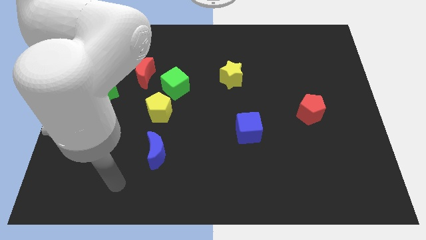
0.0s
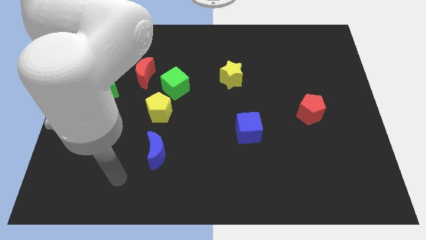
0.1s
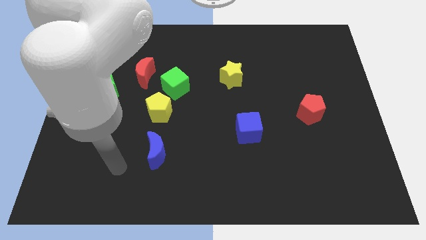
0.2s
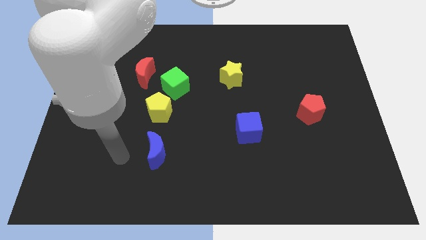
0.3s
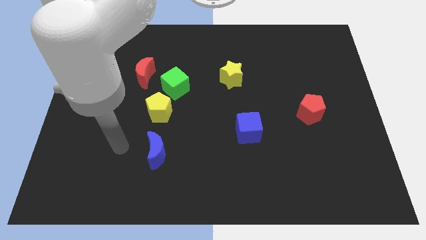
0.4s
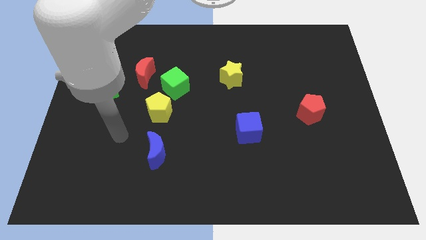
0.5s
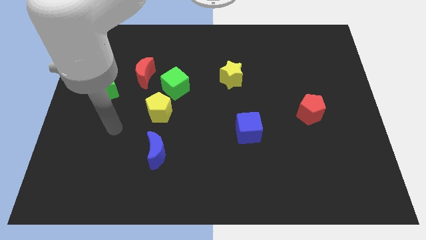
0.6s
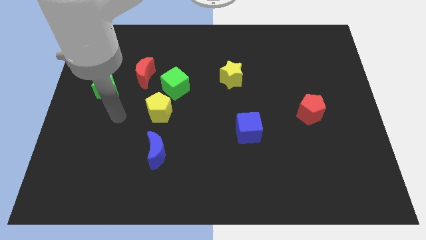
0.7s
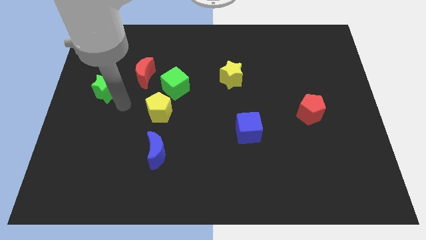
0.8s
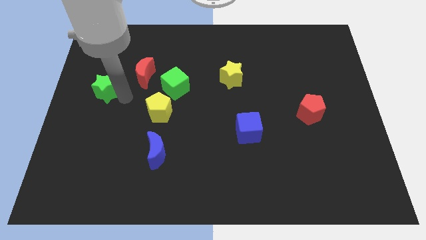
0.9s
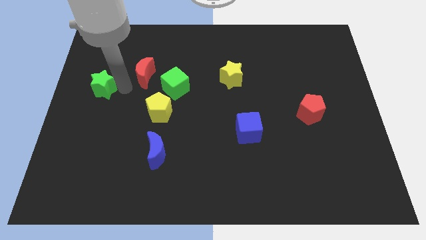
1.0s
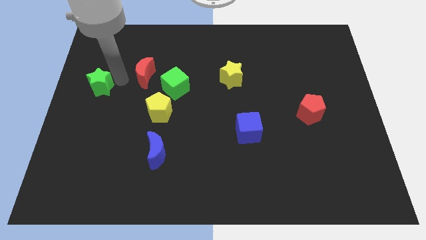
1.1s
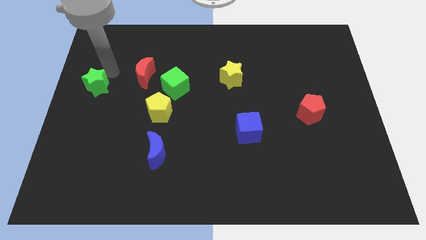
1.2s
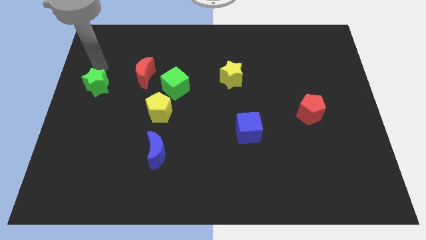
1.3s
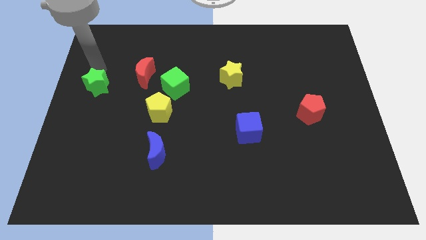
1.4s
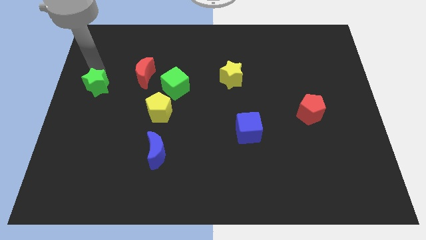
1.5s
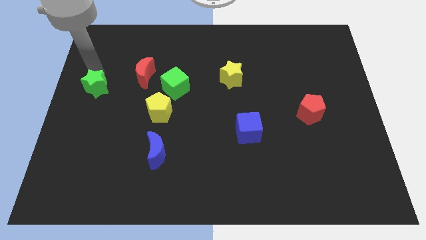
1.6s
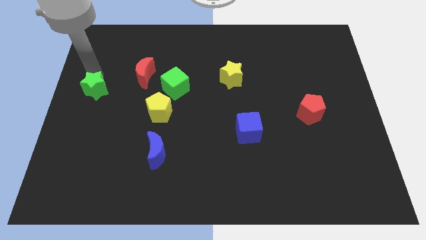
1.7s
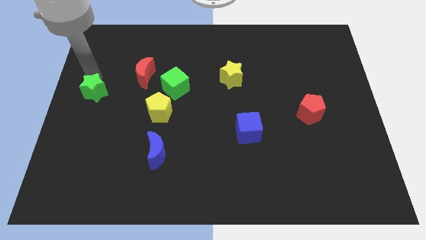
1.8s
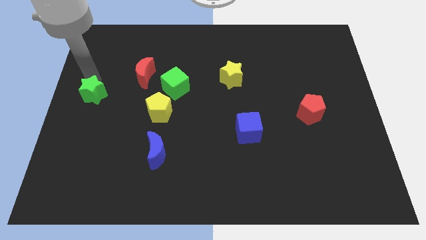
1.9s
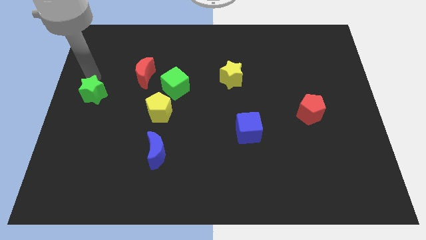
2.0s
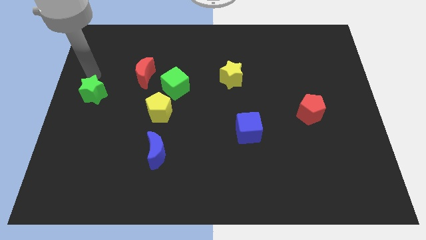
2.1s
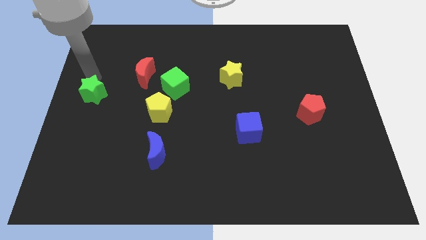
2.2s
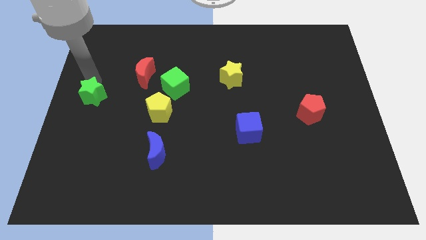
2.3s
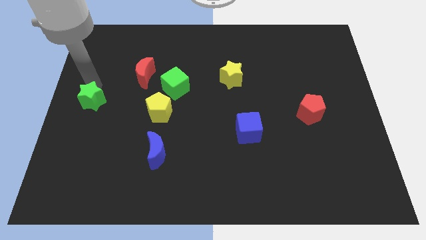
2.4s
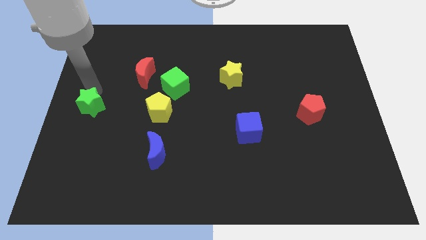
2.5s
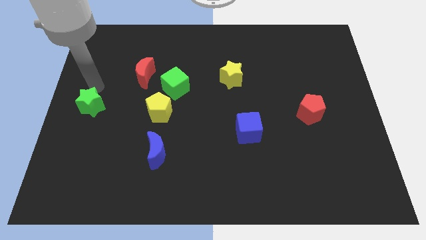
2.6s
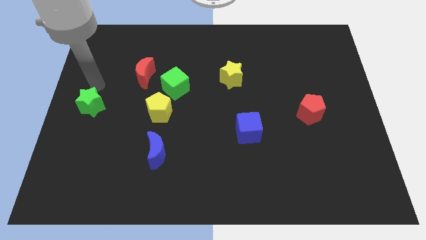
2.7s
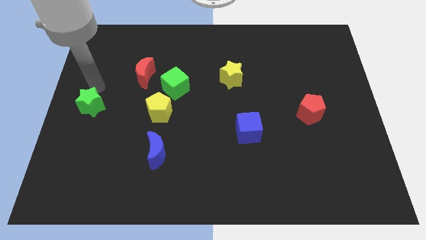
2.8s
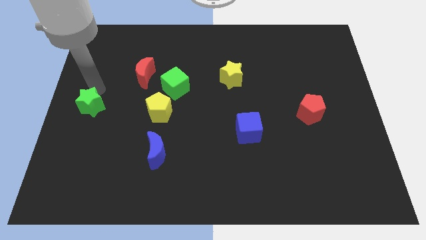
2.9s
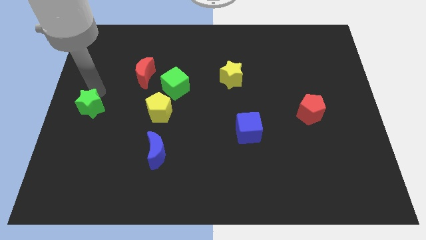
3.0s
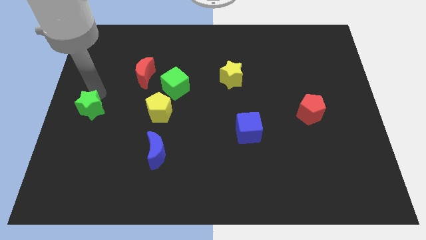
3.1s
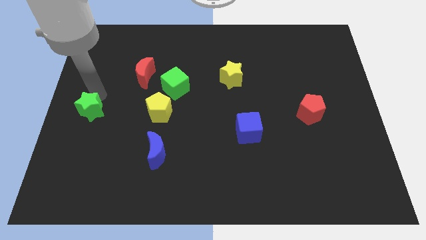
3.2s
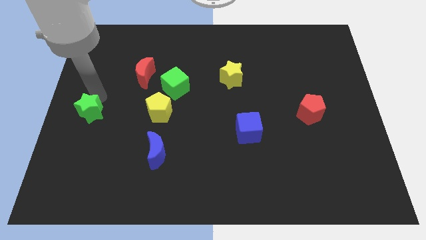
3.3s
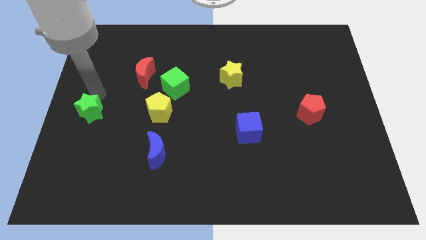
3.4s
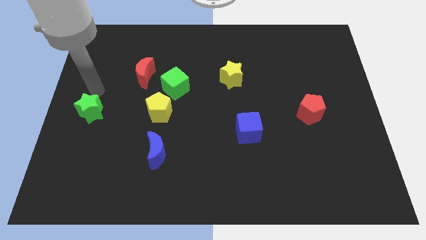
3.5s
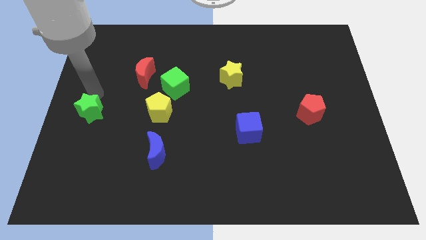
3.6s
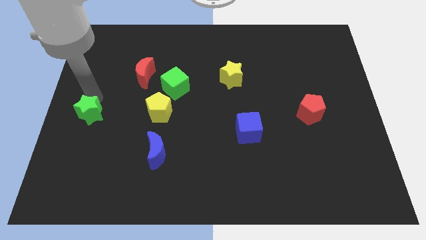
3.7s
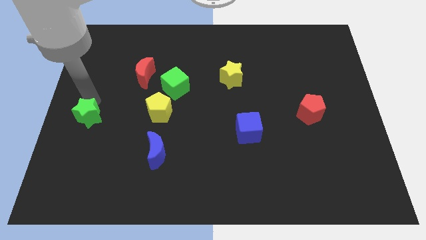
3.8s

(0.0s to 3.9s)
move the green star downwards a bit

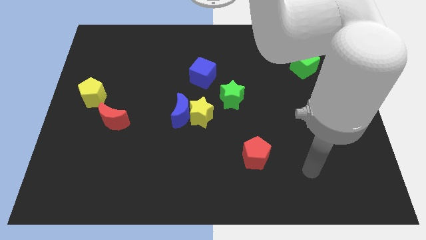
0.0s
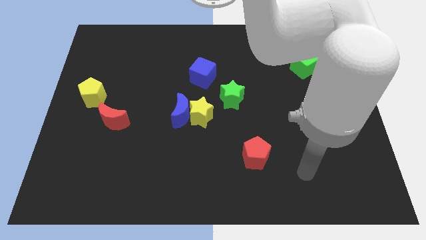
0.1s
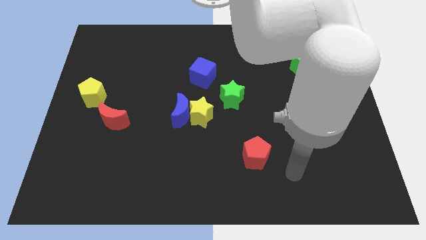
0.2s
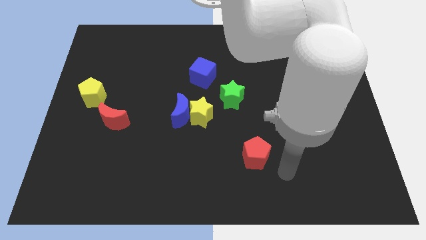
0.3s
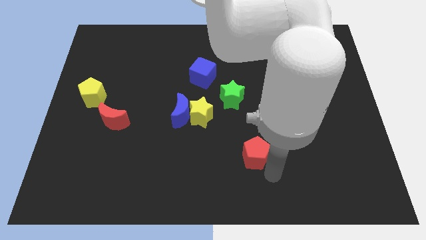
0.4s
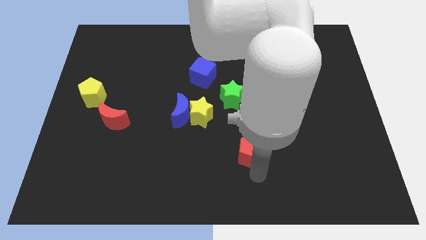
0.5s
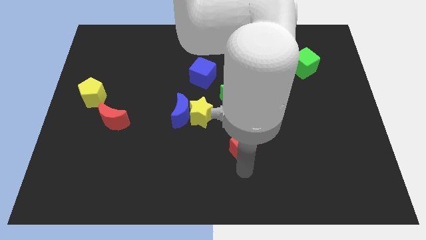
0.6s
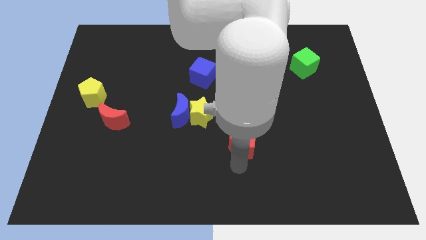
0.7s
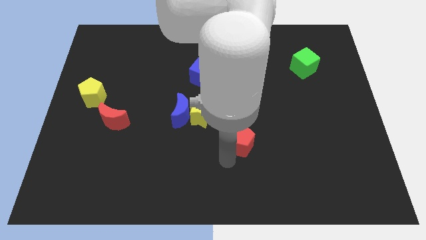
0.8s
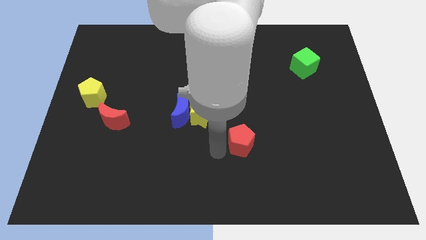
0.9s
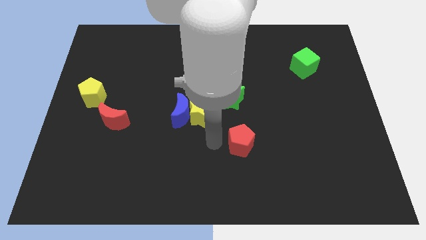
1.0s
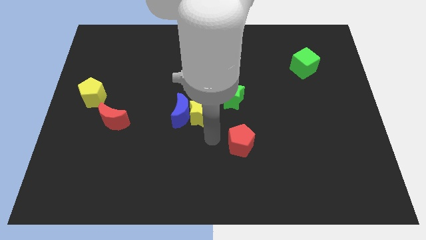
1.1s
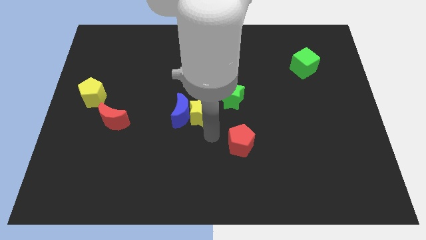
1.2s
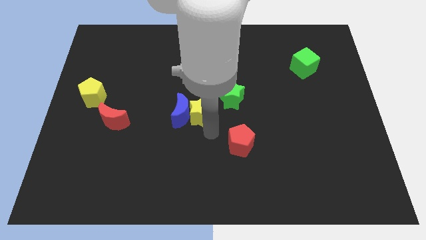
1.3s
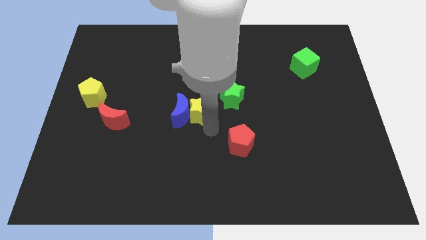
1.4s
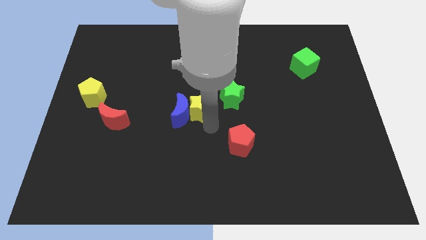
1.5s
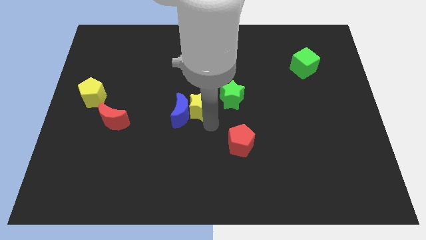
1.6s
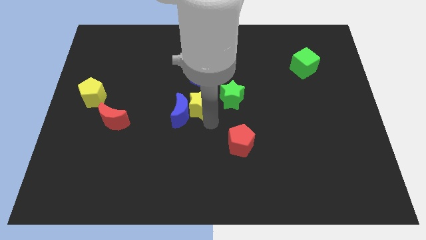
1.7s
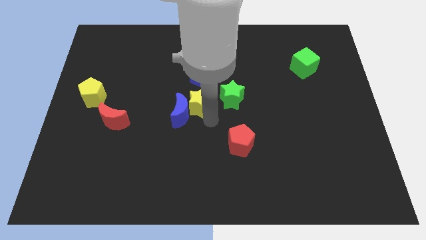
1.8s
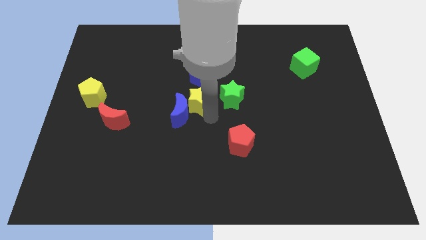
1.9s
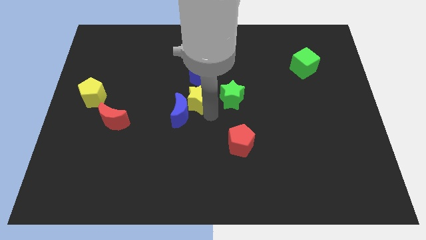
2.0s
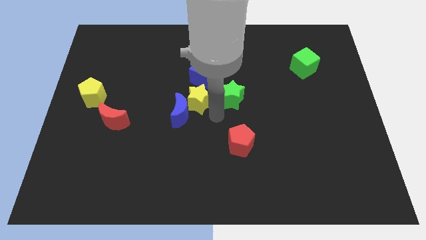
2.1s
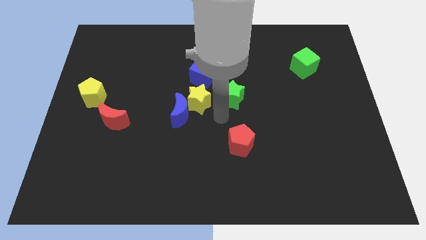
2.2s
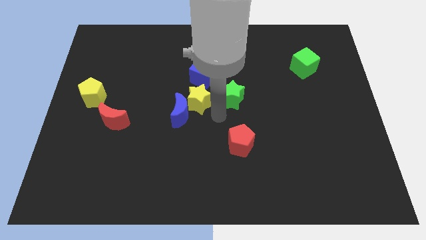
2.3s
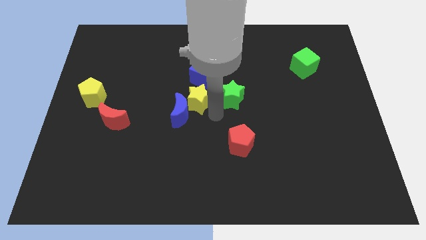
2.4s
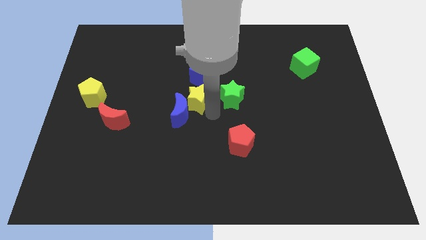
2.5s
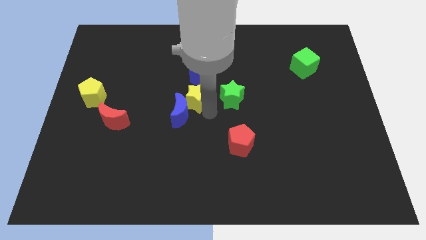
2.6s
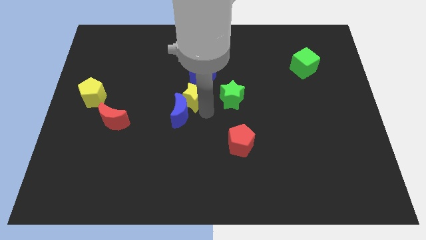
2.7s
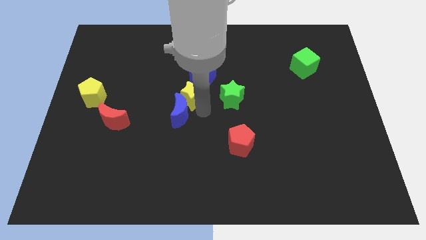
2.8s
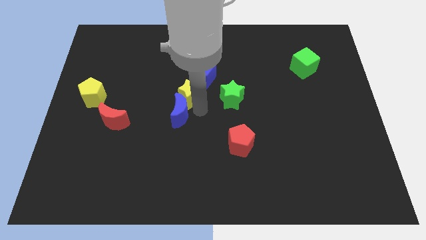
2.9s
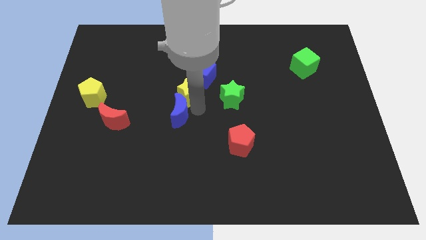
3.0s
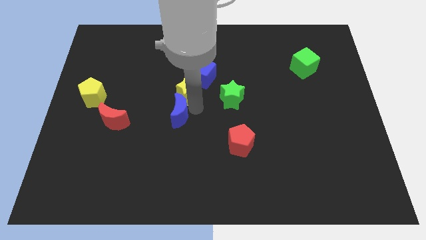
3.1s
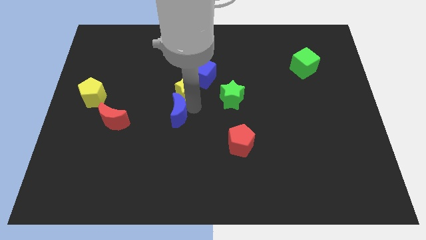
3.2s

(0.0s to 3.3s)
push the yellow star up and left diagonally a bit

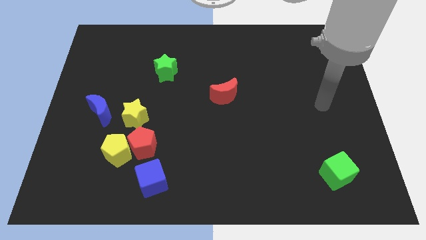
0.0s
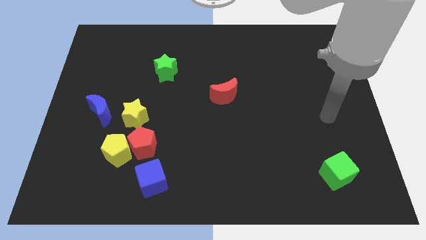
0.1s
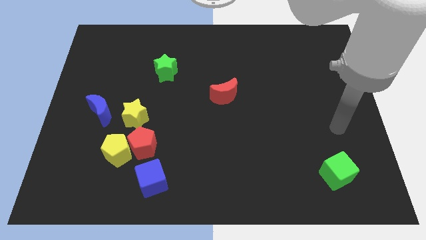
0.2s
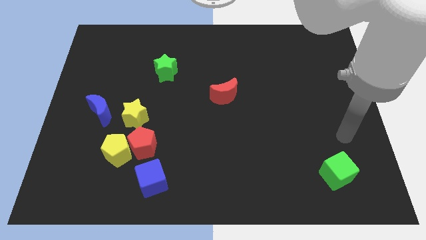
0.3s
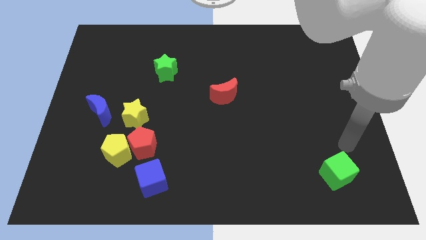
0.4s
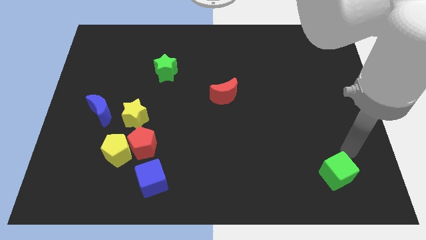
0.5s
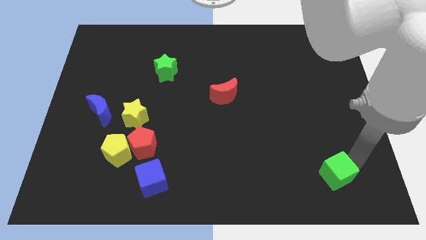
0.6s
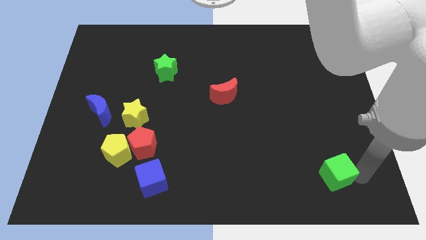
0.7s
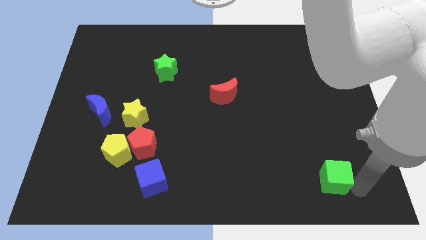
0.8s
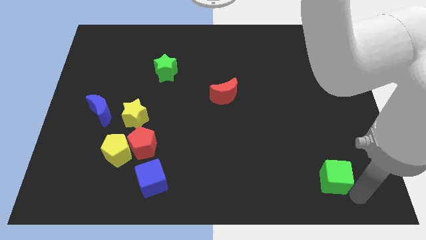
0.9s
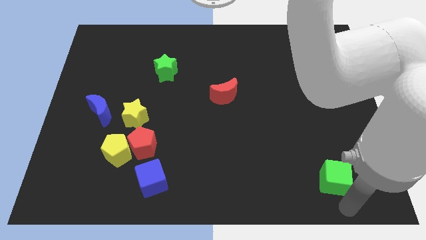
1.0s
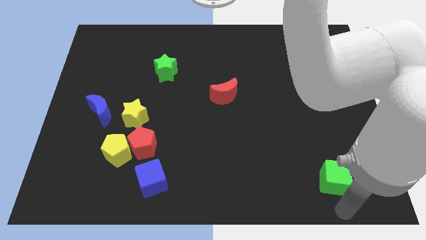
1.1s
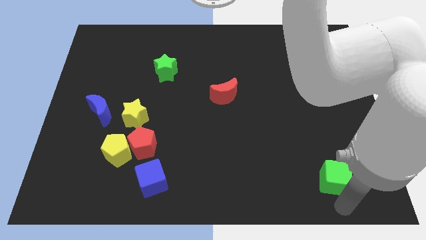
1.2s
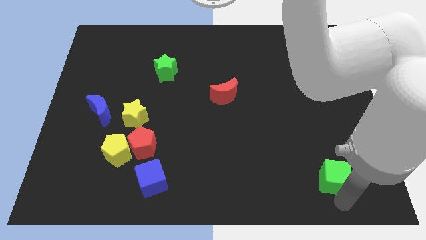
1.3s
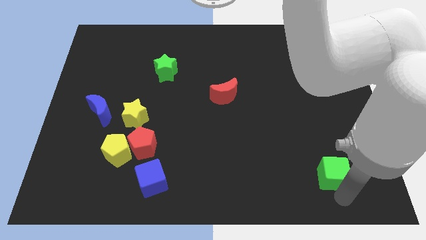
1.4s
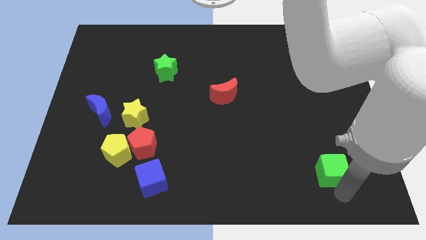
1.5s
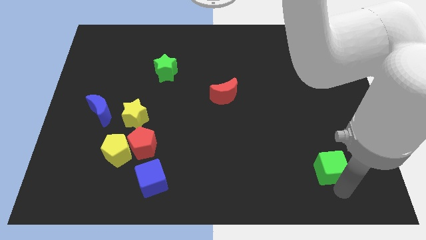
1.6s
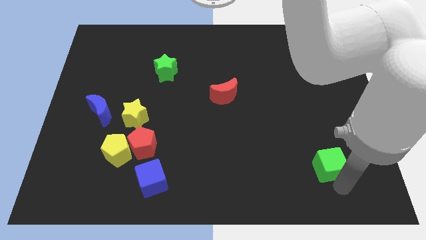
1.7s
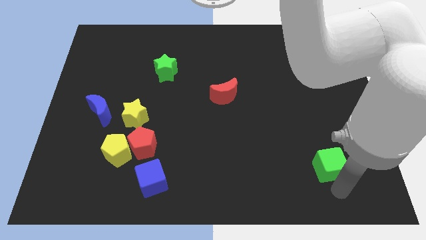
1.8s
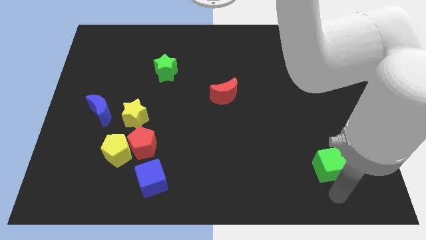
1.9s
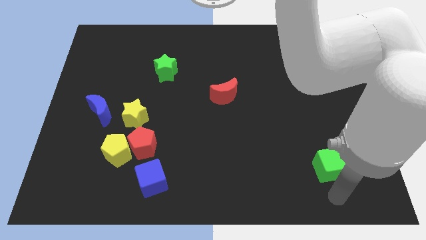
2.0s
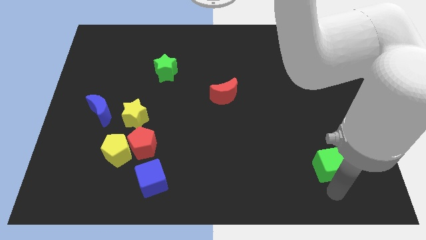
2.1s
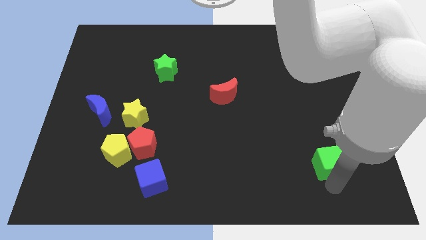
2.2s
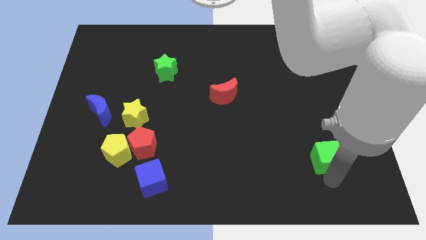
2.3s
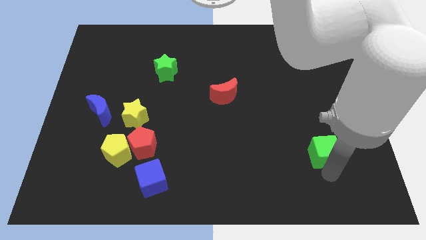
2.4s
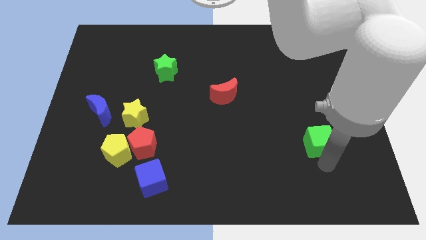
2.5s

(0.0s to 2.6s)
push the green cube a little bit up
